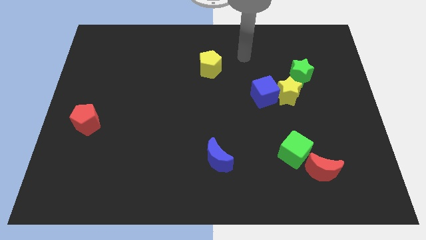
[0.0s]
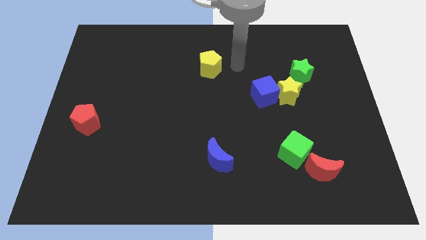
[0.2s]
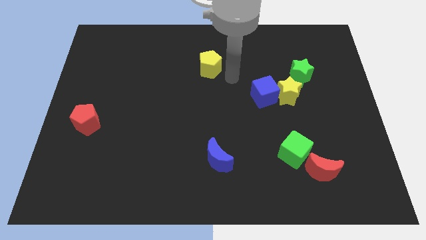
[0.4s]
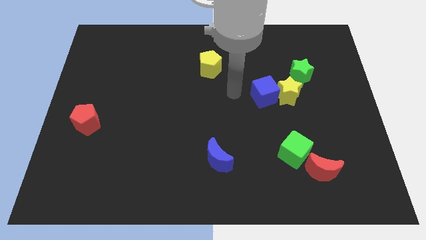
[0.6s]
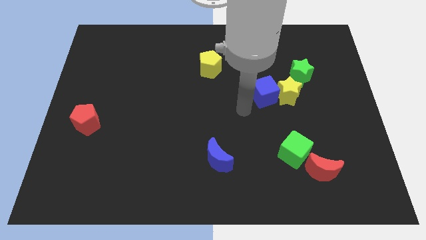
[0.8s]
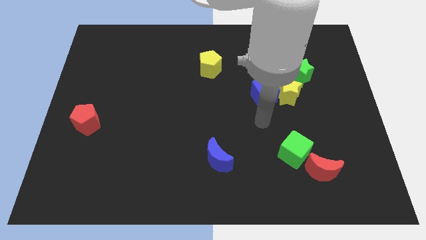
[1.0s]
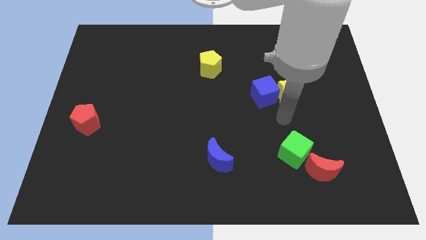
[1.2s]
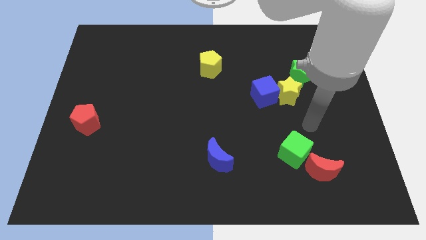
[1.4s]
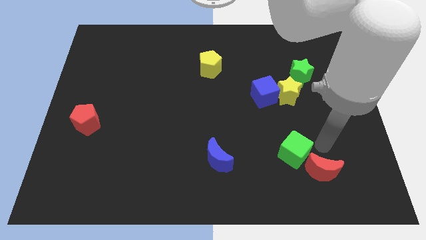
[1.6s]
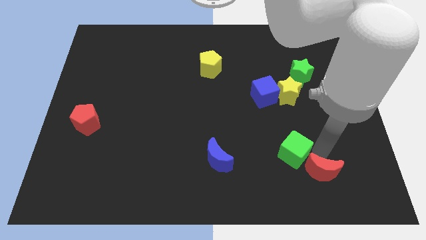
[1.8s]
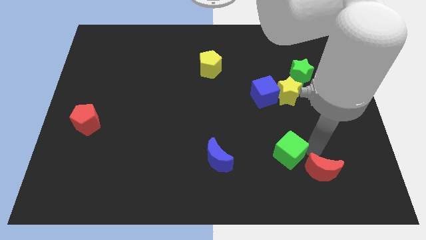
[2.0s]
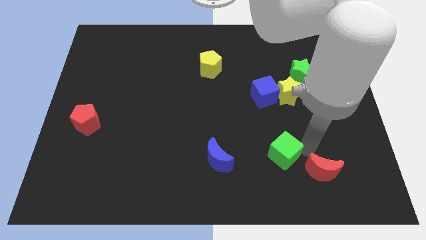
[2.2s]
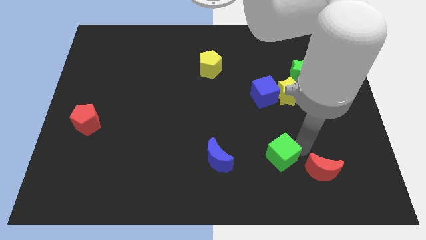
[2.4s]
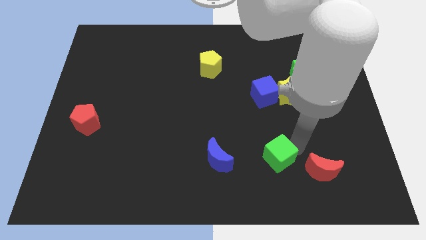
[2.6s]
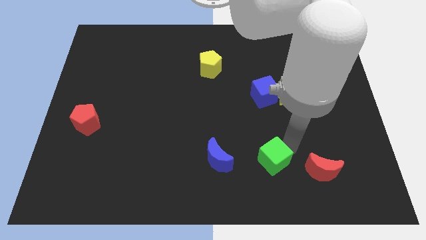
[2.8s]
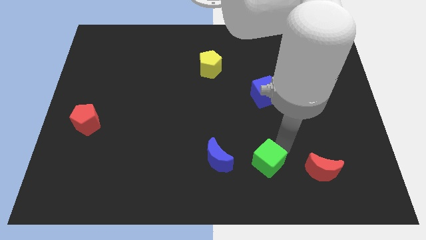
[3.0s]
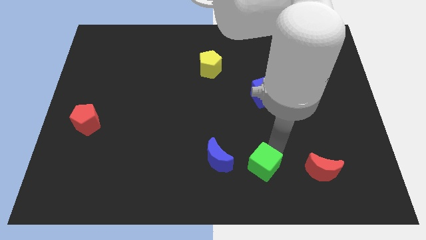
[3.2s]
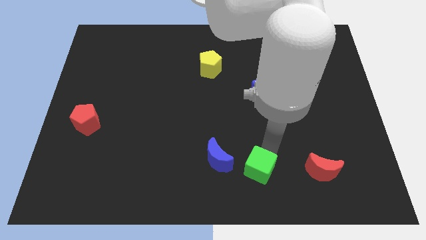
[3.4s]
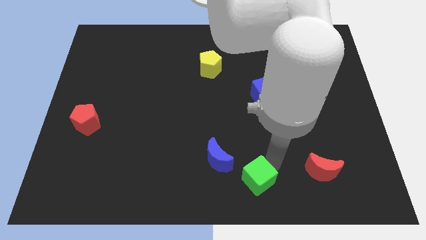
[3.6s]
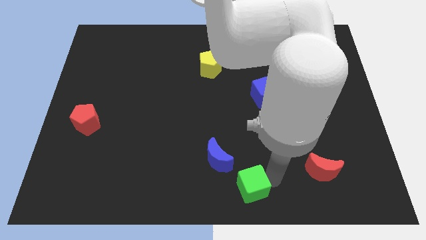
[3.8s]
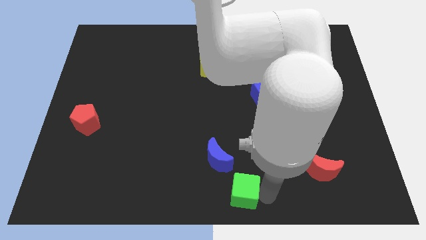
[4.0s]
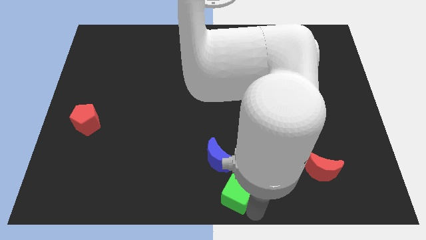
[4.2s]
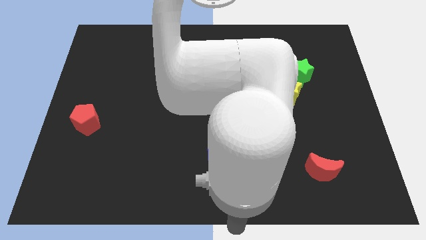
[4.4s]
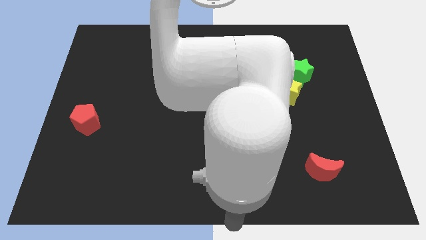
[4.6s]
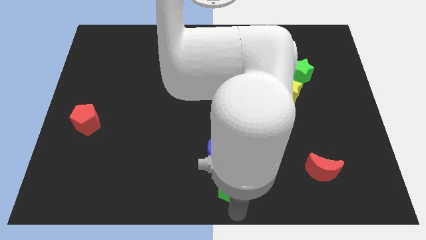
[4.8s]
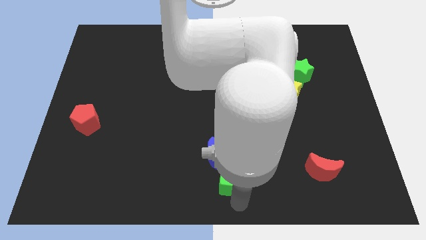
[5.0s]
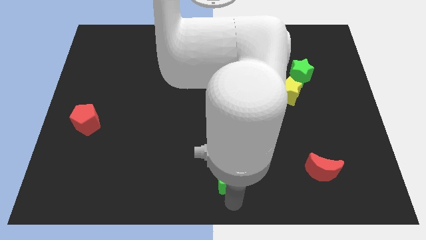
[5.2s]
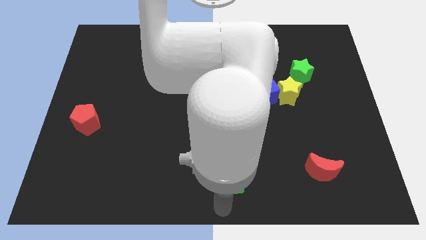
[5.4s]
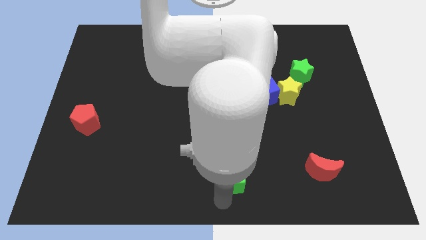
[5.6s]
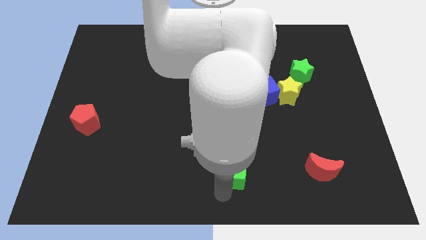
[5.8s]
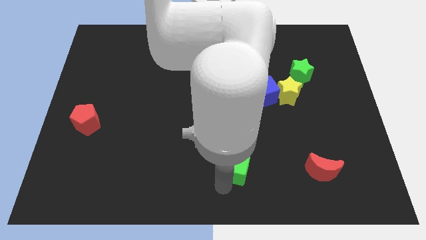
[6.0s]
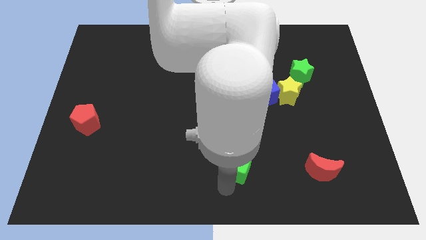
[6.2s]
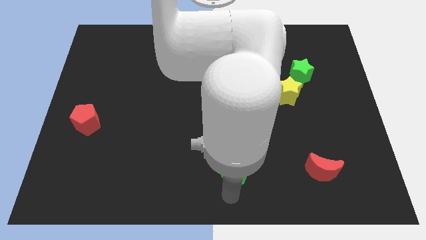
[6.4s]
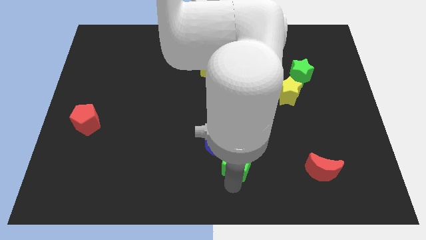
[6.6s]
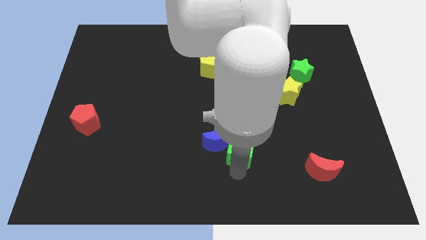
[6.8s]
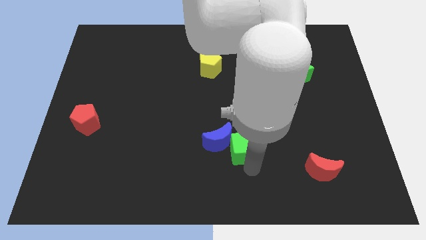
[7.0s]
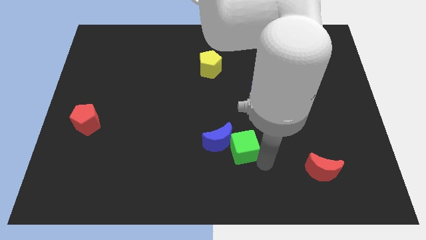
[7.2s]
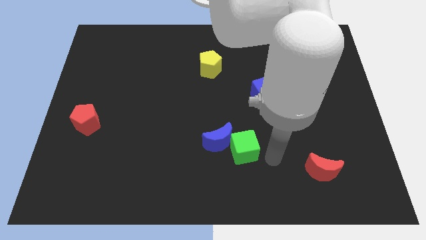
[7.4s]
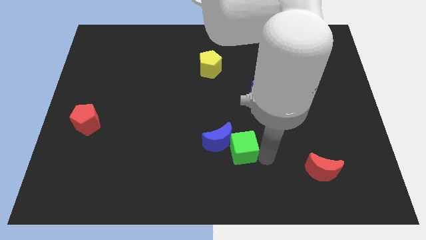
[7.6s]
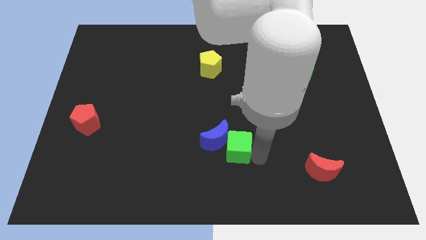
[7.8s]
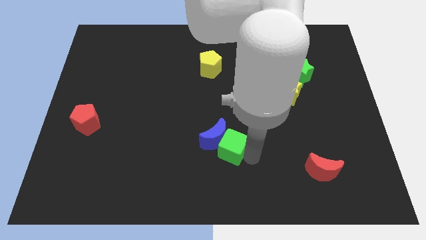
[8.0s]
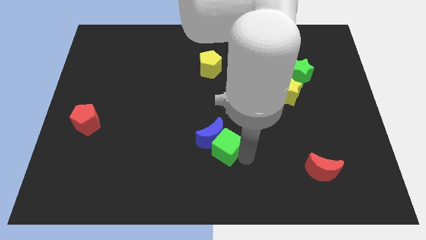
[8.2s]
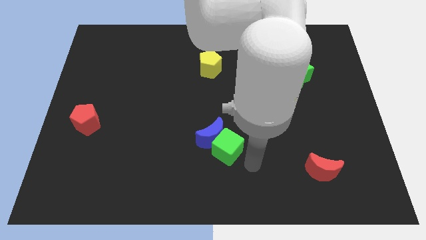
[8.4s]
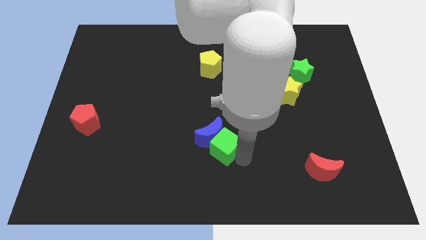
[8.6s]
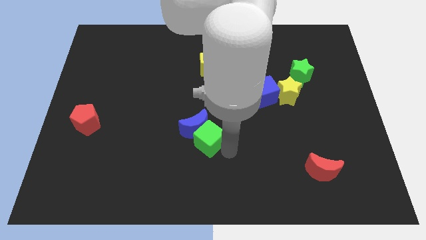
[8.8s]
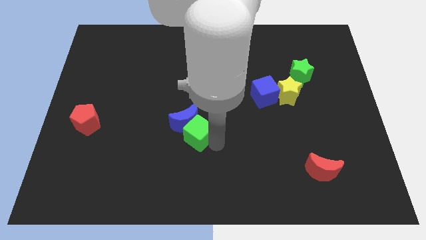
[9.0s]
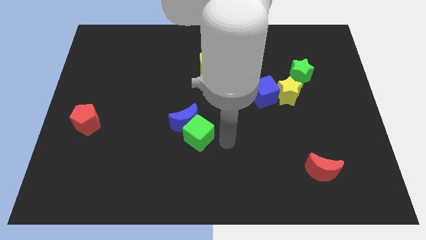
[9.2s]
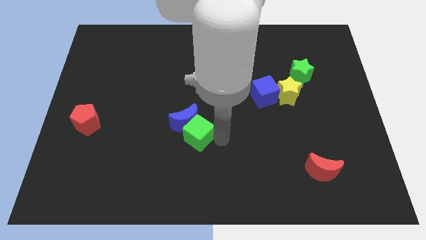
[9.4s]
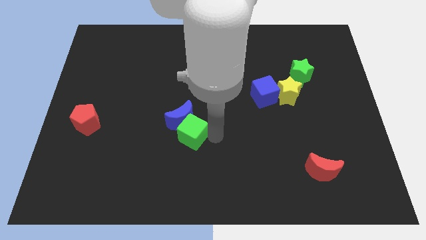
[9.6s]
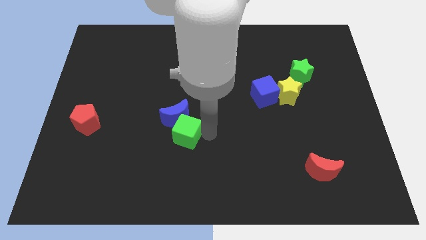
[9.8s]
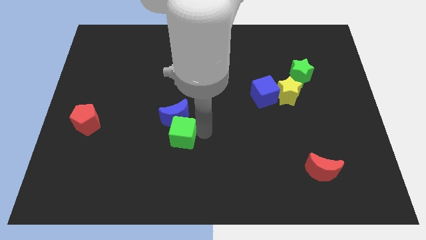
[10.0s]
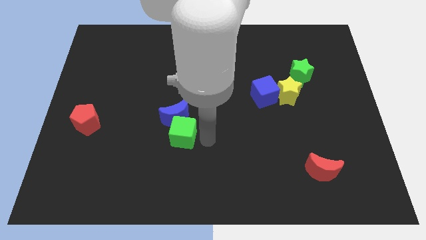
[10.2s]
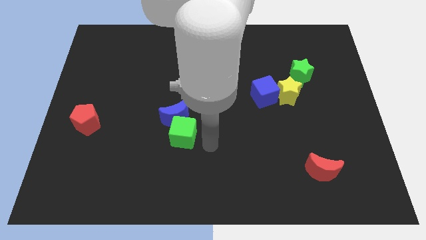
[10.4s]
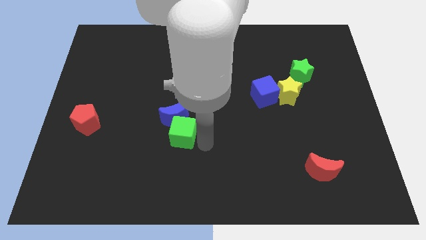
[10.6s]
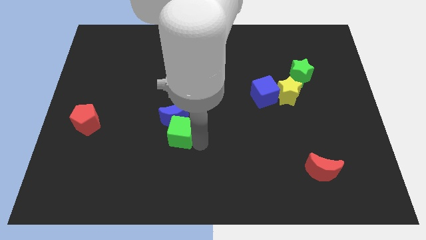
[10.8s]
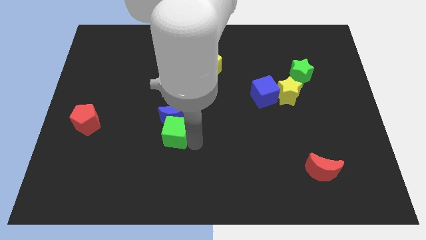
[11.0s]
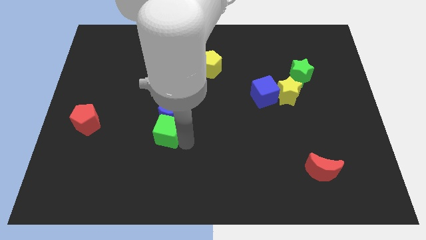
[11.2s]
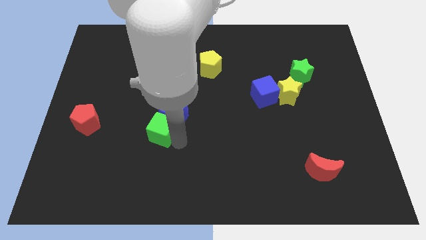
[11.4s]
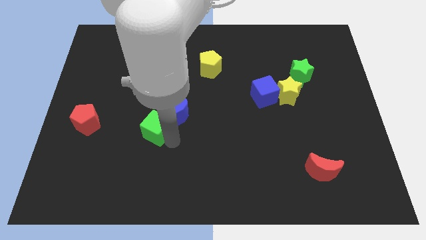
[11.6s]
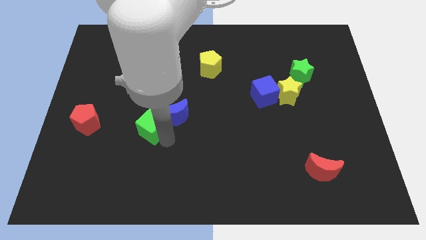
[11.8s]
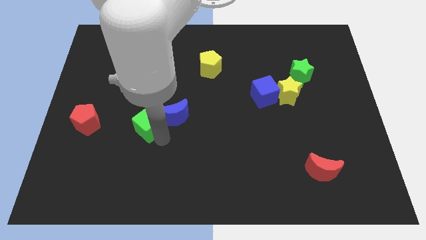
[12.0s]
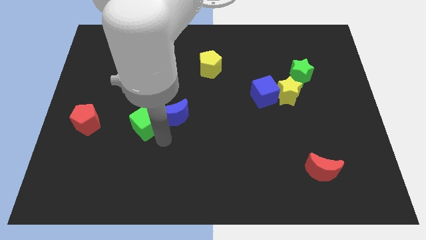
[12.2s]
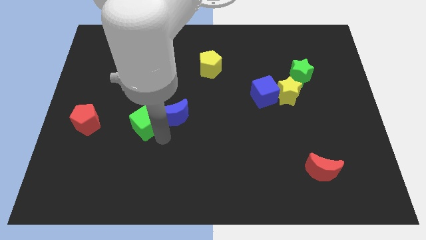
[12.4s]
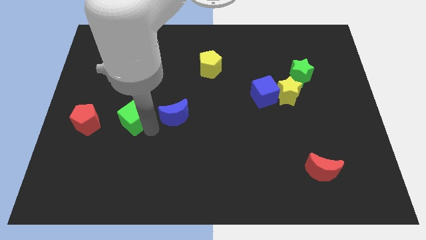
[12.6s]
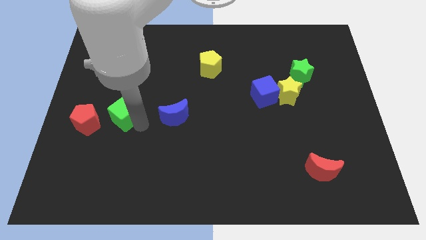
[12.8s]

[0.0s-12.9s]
move the green cube to the top right of the red pentagon
